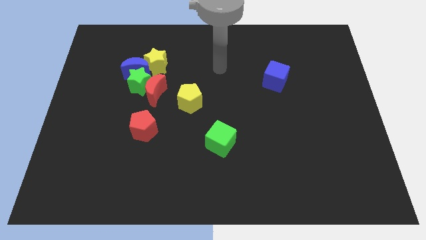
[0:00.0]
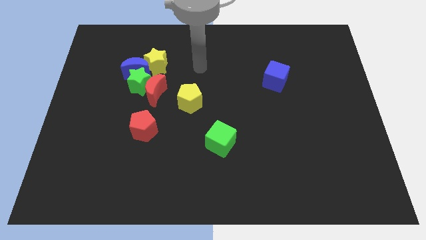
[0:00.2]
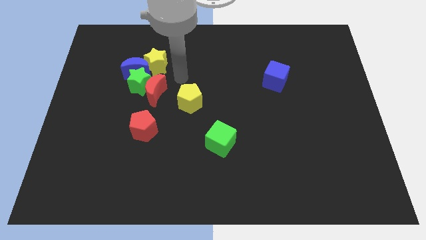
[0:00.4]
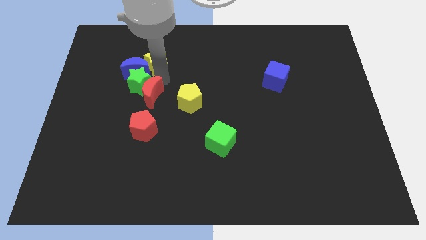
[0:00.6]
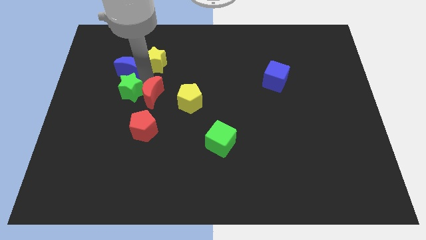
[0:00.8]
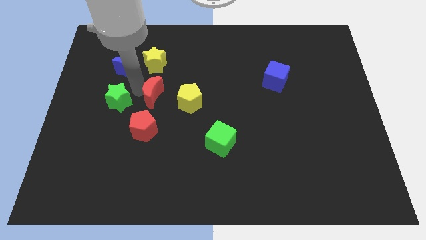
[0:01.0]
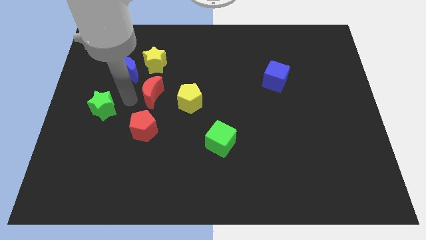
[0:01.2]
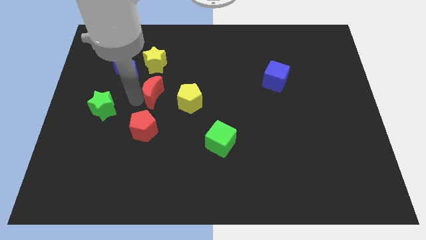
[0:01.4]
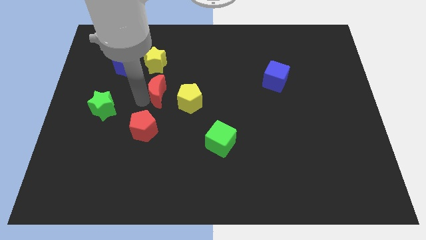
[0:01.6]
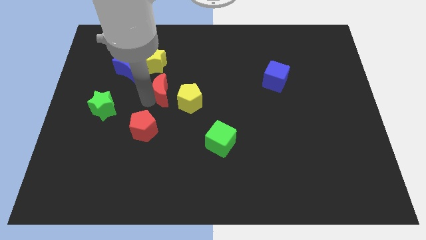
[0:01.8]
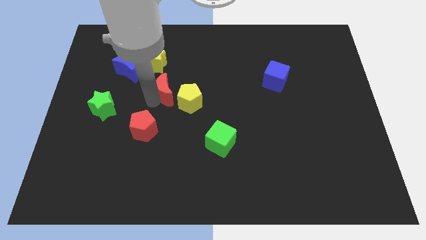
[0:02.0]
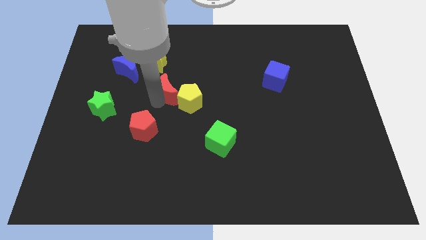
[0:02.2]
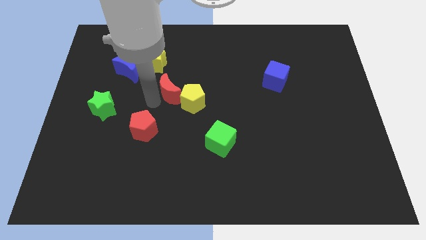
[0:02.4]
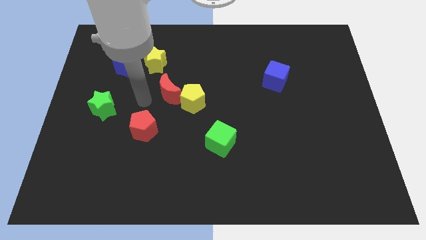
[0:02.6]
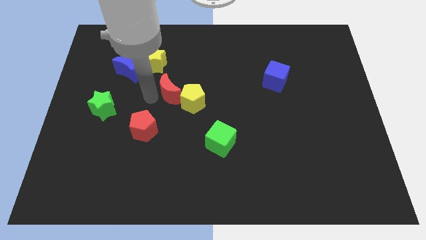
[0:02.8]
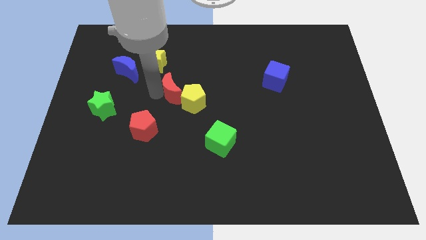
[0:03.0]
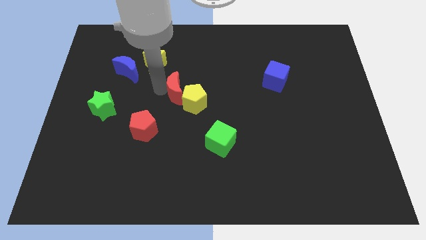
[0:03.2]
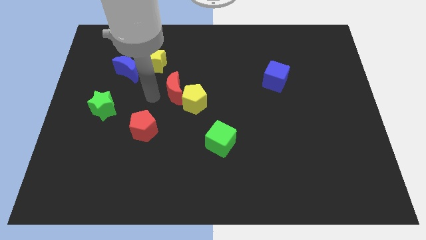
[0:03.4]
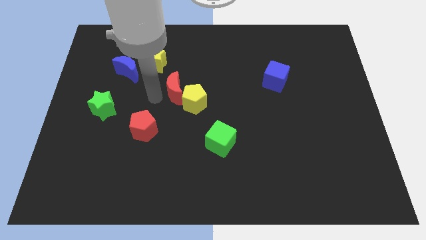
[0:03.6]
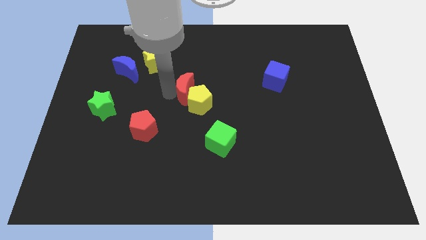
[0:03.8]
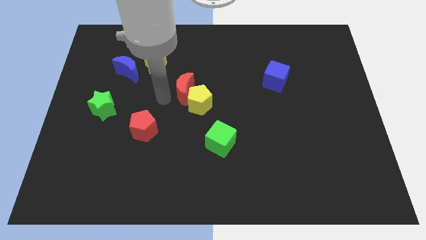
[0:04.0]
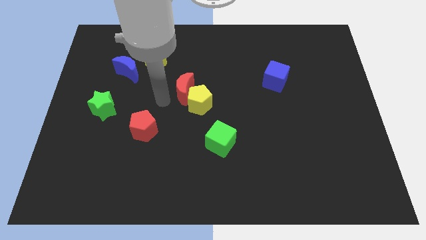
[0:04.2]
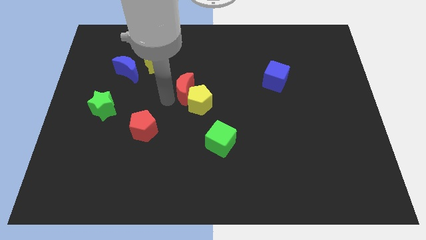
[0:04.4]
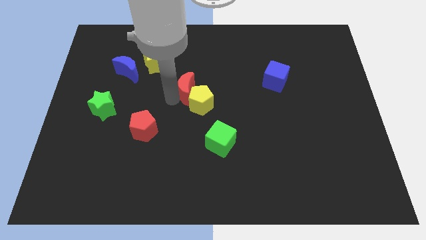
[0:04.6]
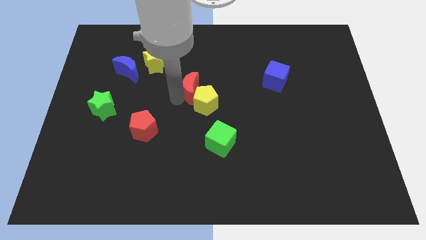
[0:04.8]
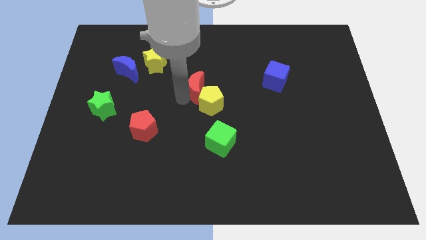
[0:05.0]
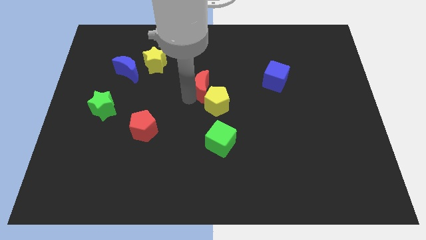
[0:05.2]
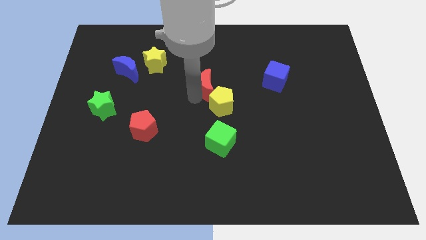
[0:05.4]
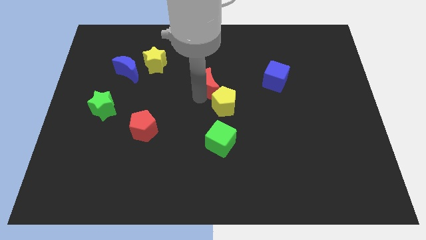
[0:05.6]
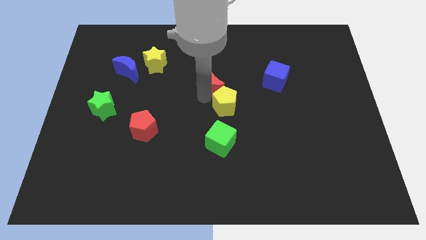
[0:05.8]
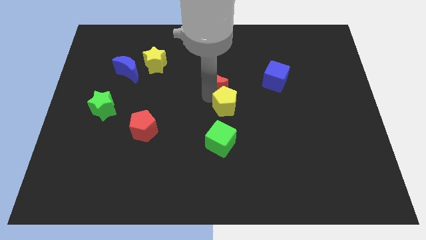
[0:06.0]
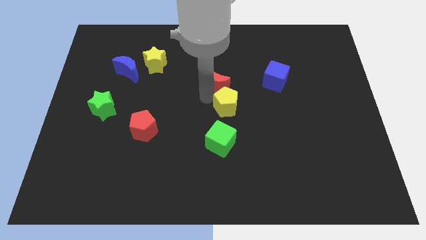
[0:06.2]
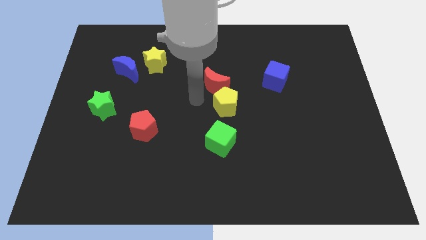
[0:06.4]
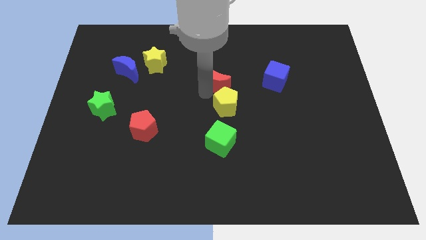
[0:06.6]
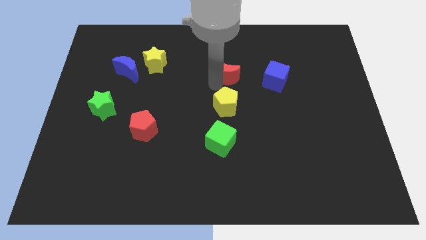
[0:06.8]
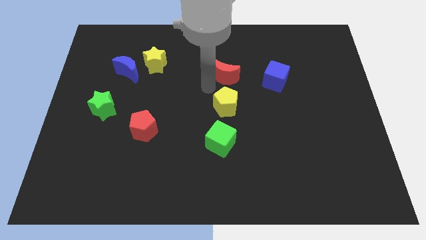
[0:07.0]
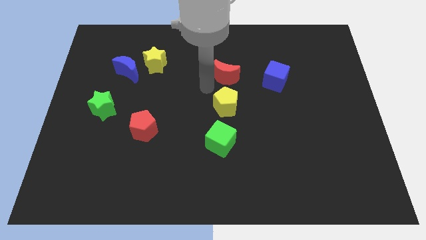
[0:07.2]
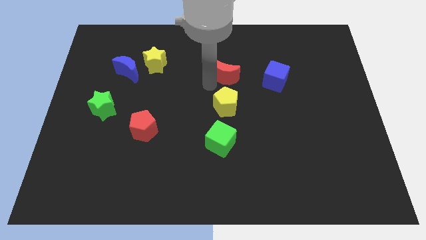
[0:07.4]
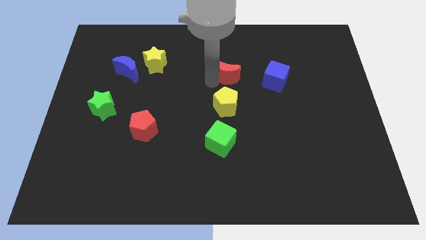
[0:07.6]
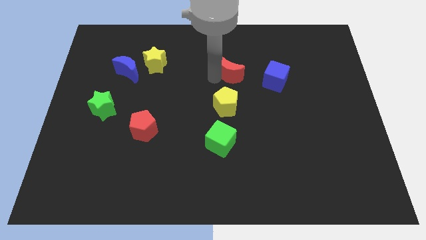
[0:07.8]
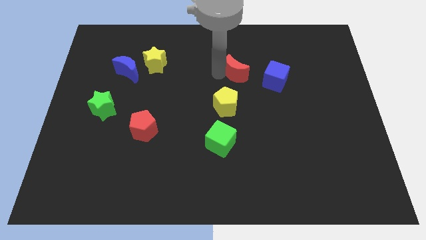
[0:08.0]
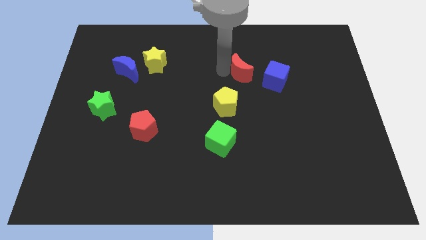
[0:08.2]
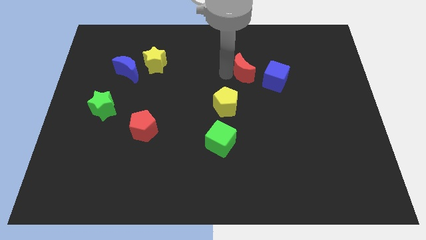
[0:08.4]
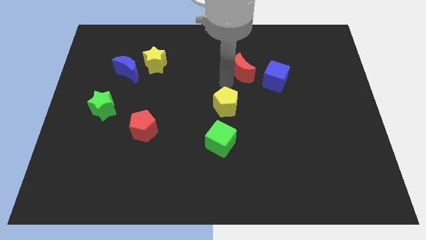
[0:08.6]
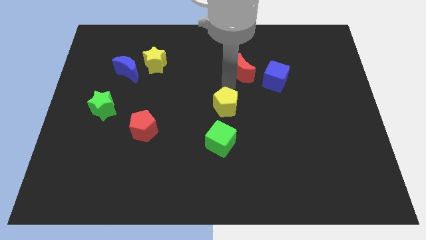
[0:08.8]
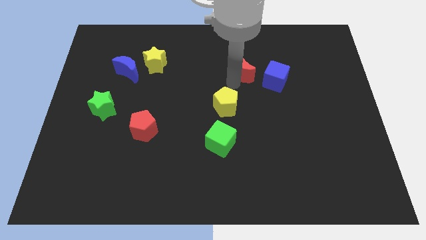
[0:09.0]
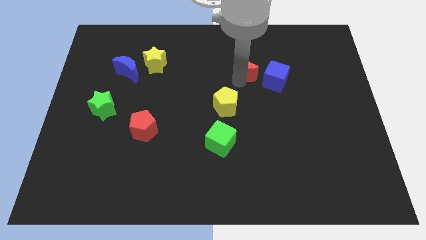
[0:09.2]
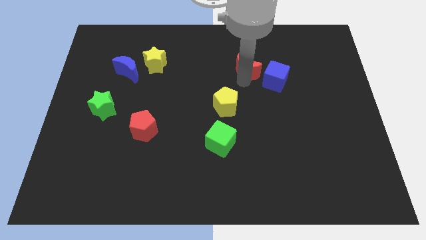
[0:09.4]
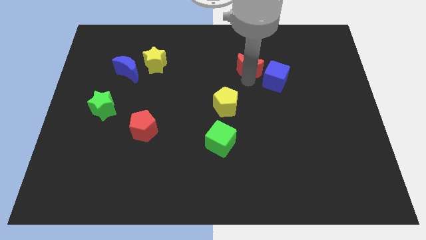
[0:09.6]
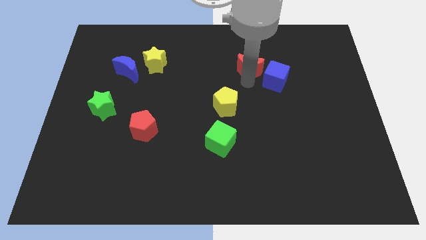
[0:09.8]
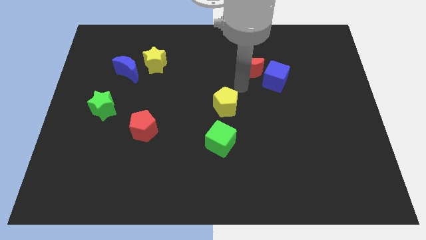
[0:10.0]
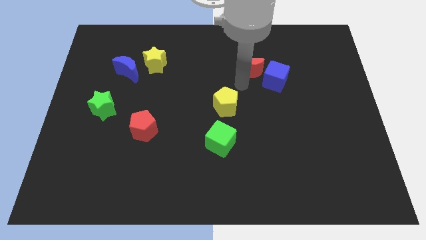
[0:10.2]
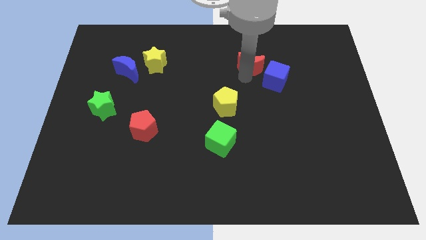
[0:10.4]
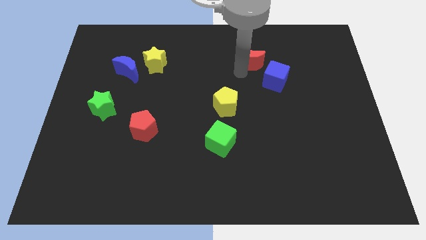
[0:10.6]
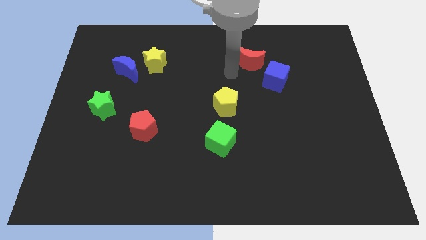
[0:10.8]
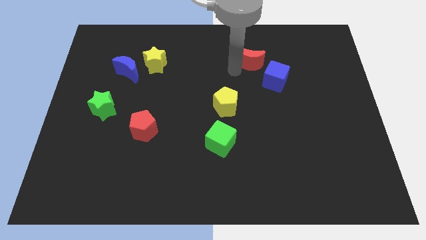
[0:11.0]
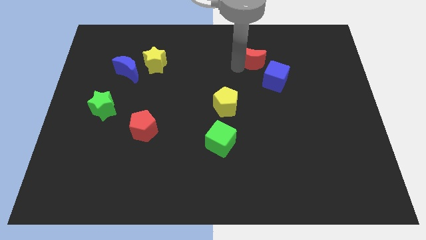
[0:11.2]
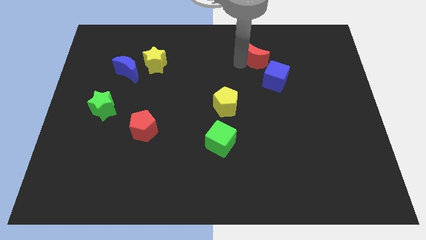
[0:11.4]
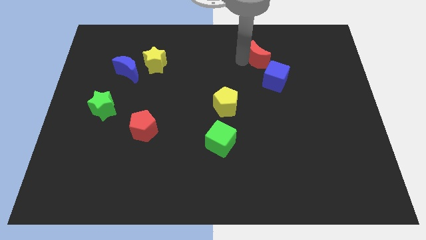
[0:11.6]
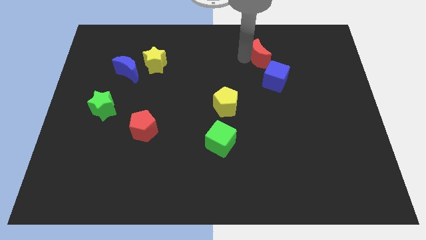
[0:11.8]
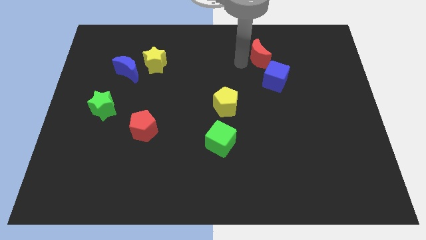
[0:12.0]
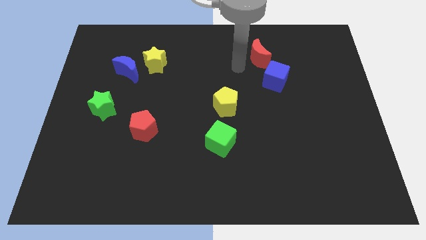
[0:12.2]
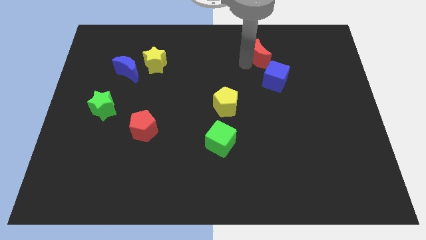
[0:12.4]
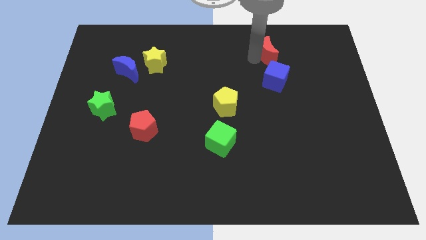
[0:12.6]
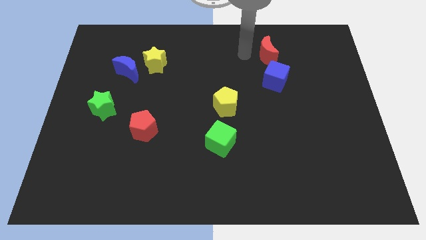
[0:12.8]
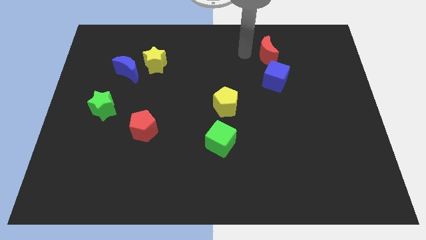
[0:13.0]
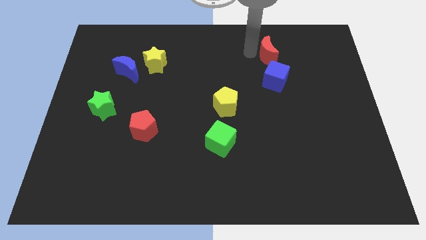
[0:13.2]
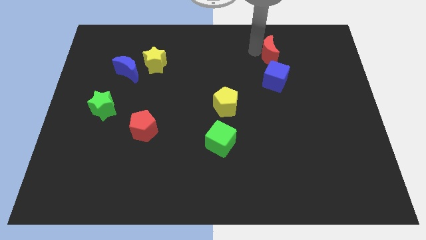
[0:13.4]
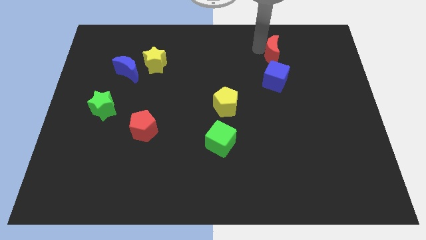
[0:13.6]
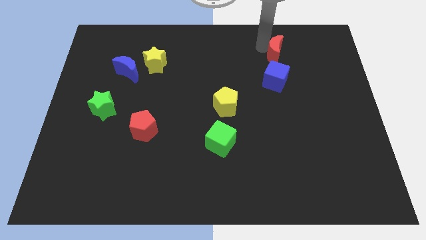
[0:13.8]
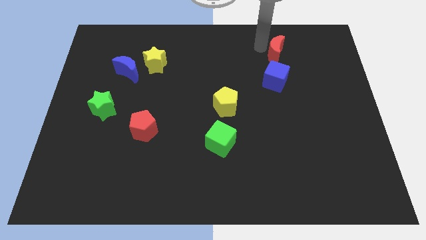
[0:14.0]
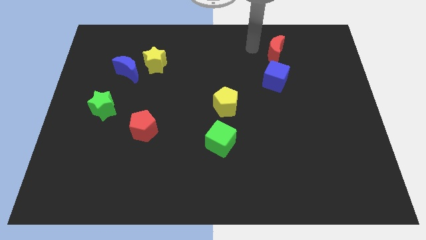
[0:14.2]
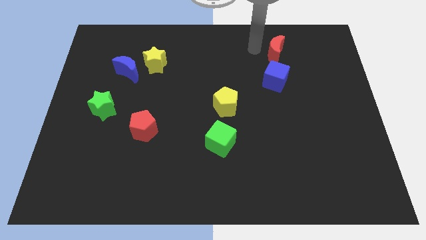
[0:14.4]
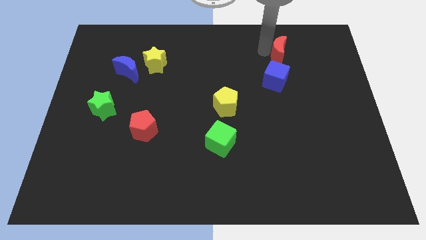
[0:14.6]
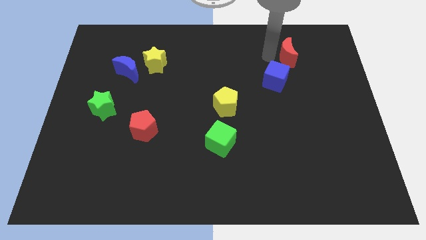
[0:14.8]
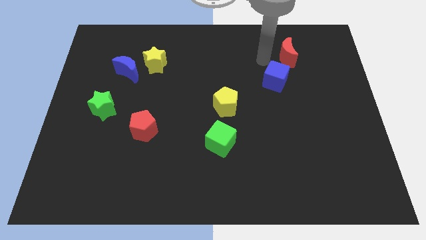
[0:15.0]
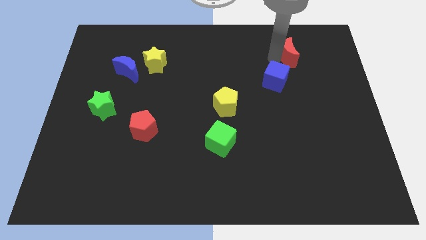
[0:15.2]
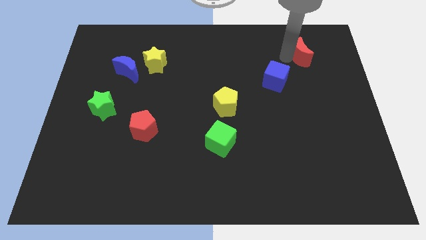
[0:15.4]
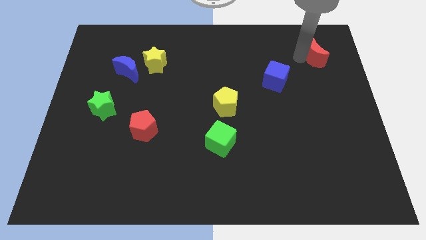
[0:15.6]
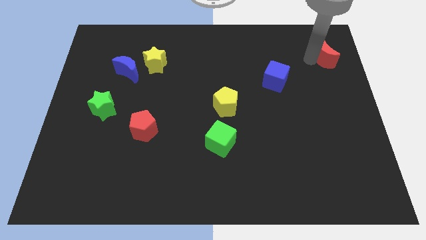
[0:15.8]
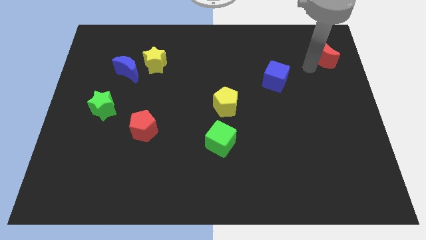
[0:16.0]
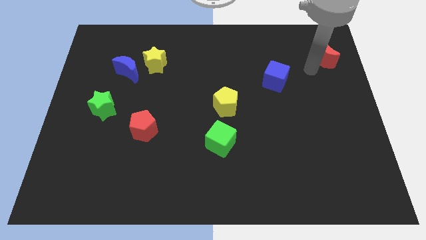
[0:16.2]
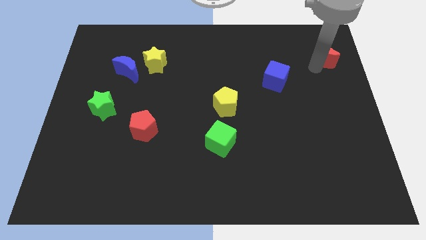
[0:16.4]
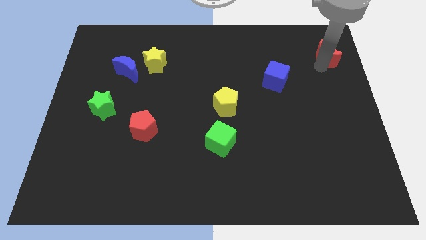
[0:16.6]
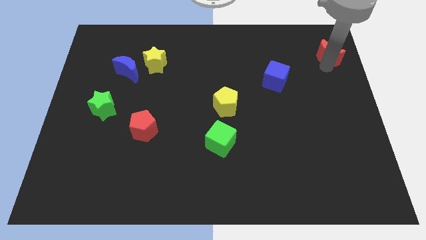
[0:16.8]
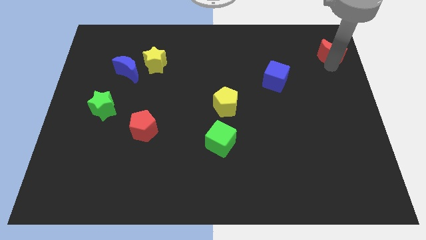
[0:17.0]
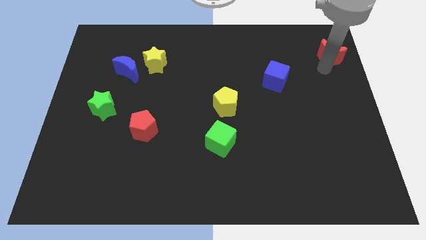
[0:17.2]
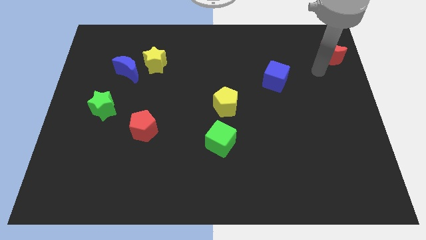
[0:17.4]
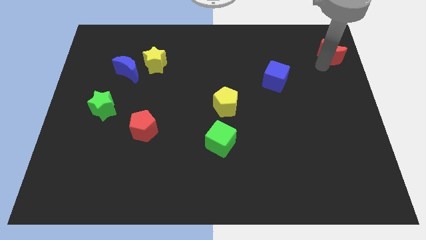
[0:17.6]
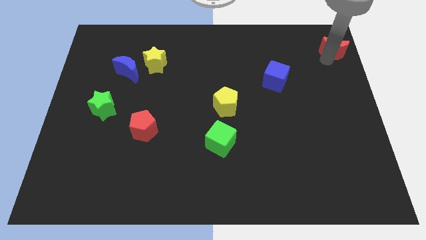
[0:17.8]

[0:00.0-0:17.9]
slide the red moon to the top right corner
